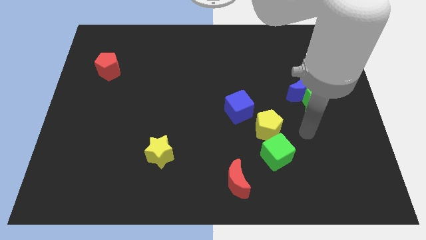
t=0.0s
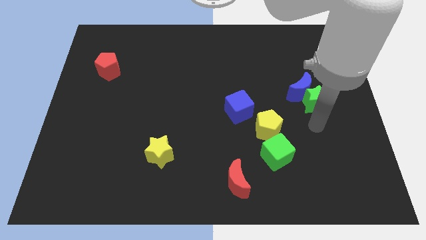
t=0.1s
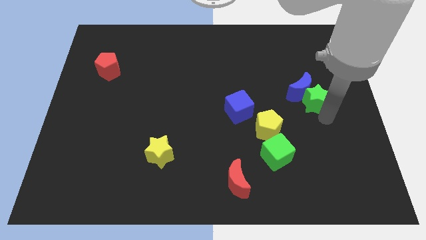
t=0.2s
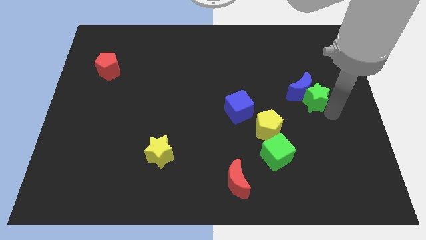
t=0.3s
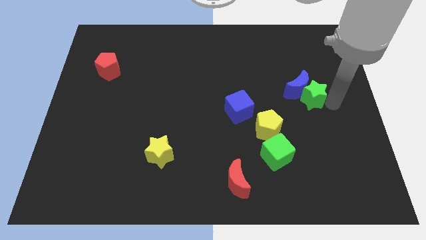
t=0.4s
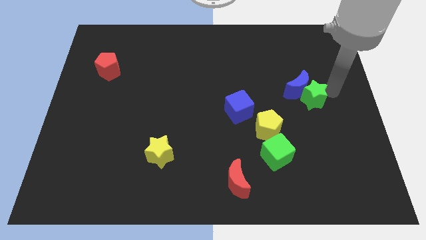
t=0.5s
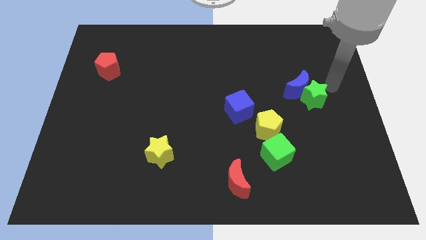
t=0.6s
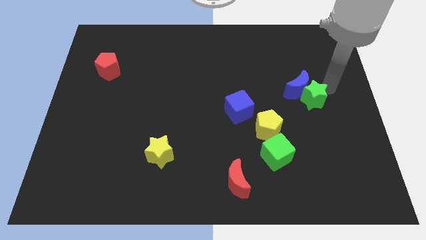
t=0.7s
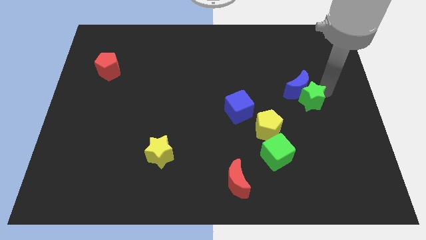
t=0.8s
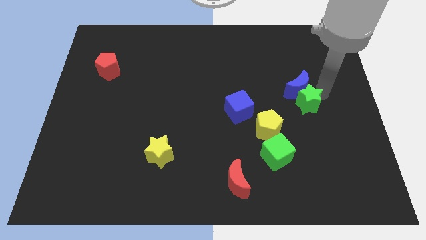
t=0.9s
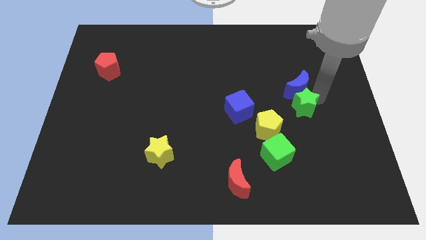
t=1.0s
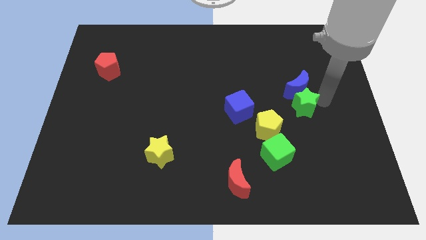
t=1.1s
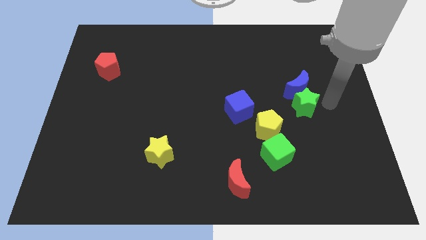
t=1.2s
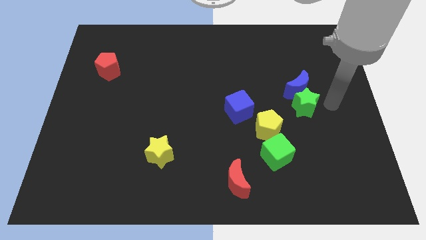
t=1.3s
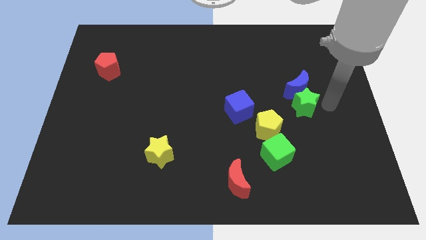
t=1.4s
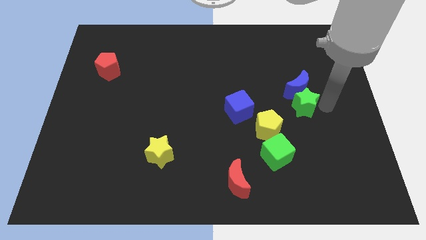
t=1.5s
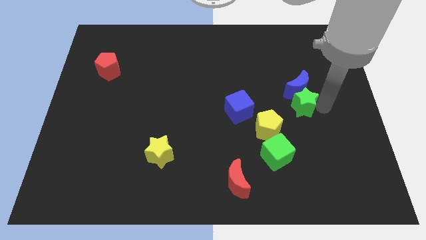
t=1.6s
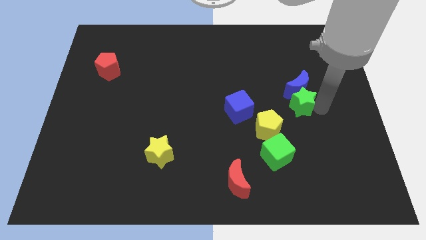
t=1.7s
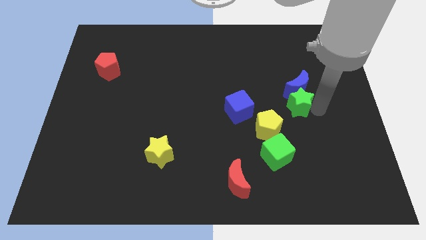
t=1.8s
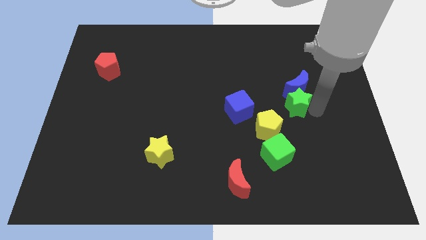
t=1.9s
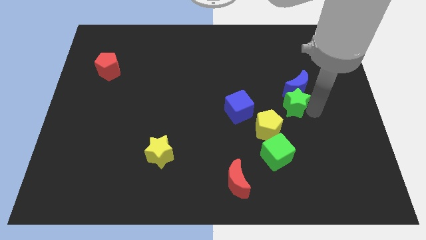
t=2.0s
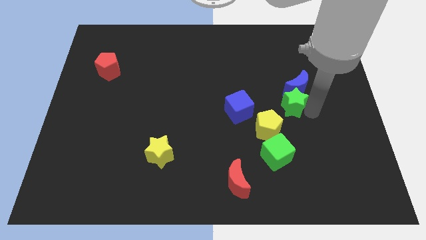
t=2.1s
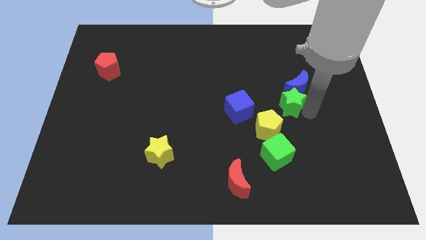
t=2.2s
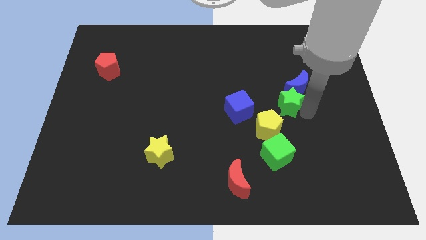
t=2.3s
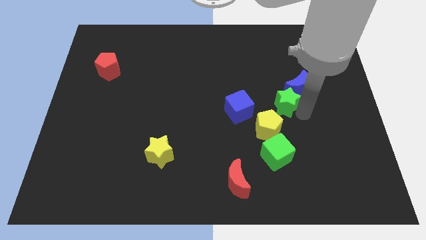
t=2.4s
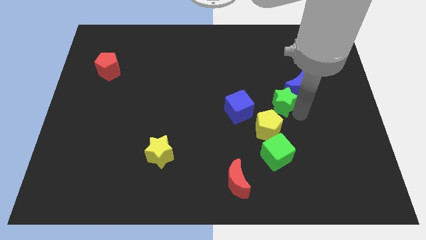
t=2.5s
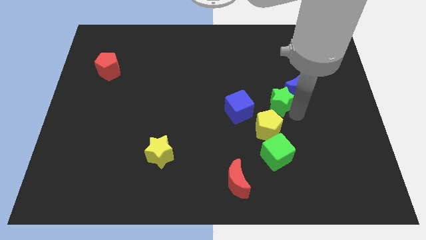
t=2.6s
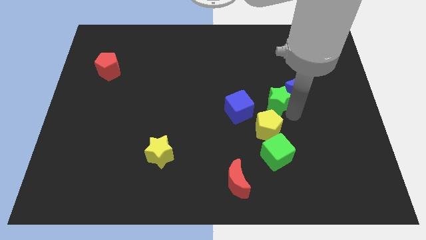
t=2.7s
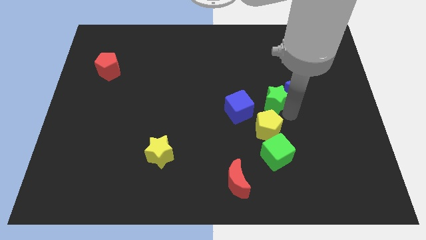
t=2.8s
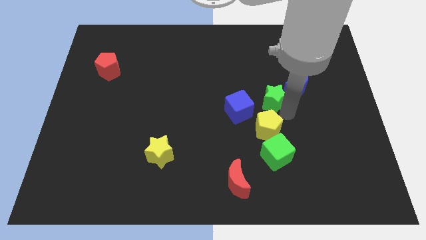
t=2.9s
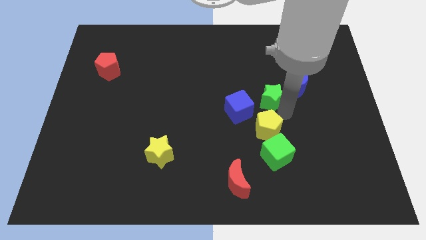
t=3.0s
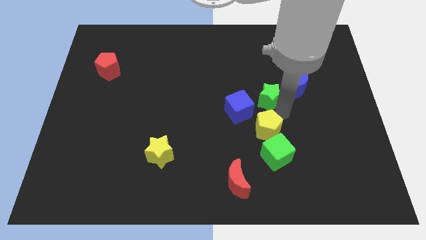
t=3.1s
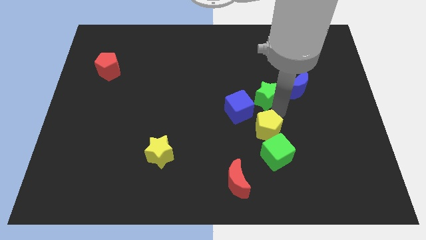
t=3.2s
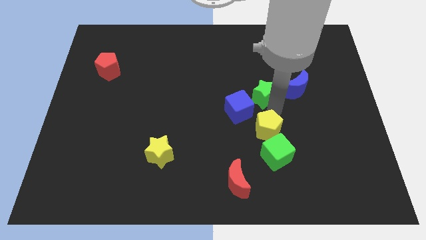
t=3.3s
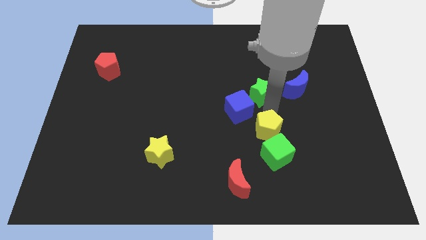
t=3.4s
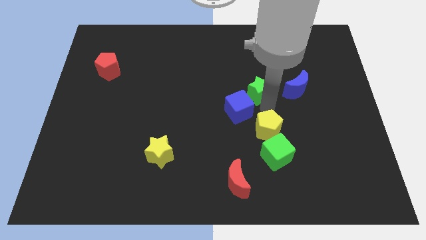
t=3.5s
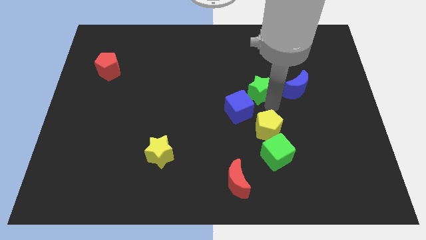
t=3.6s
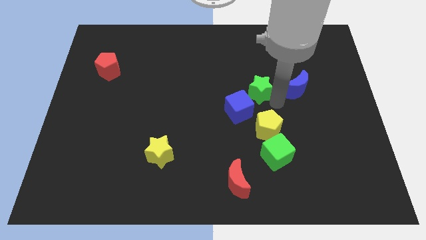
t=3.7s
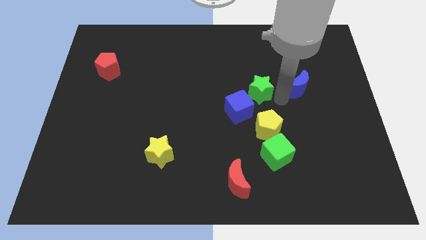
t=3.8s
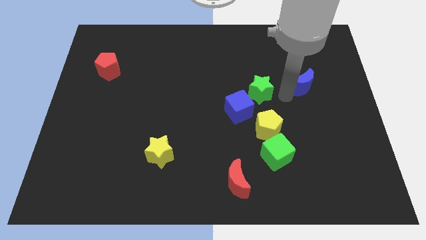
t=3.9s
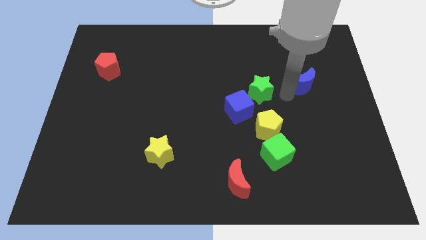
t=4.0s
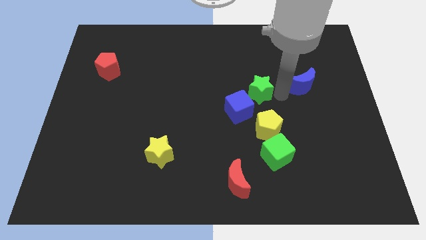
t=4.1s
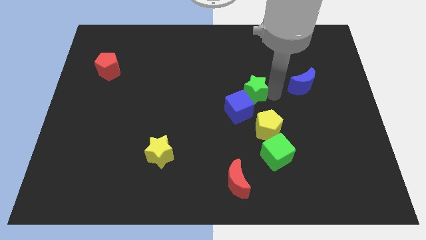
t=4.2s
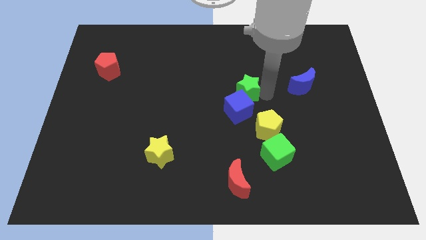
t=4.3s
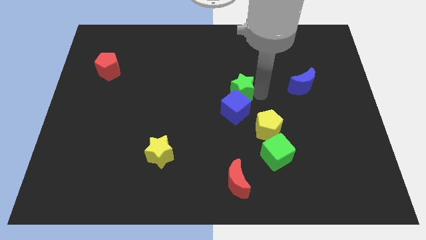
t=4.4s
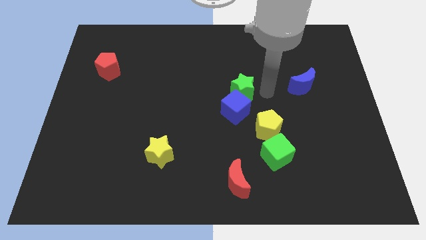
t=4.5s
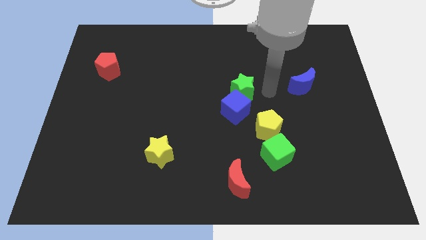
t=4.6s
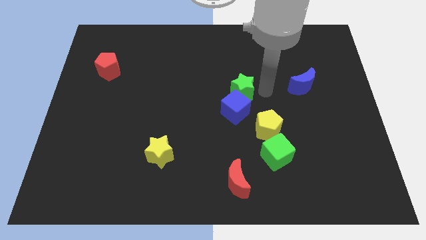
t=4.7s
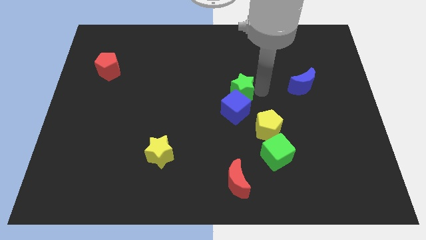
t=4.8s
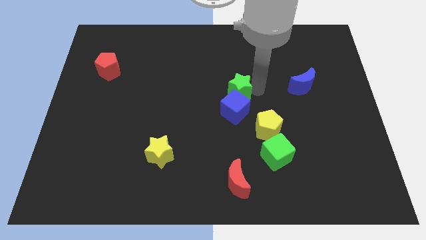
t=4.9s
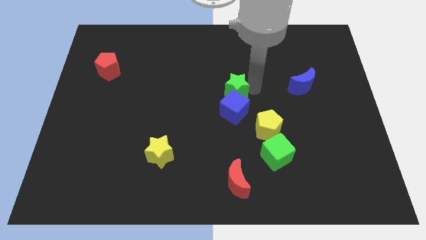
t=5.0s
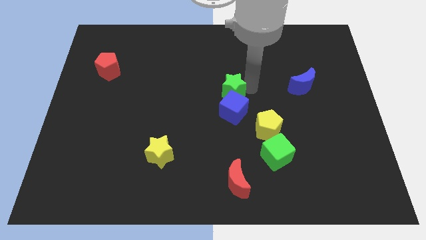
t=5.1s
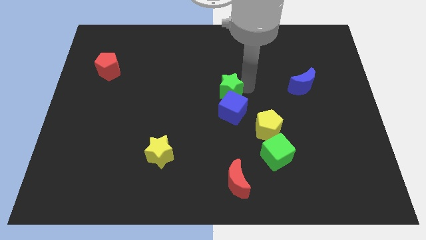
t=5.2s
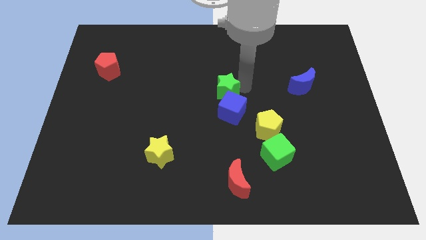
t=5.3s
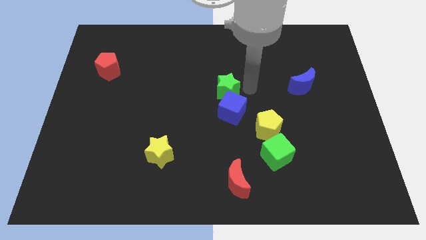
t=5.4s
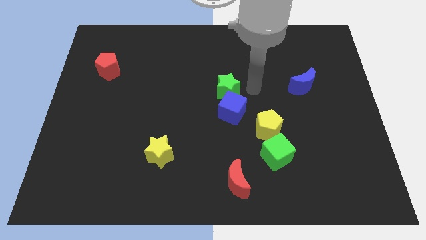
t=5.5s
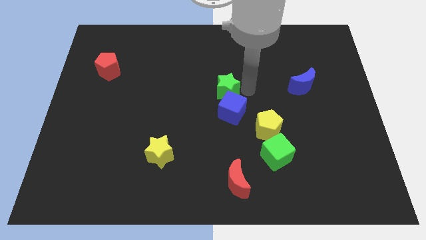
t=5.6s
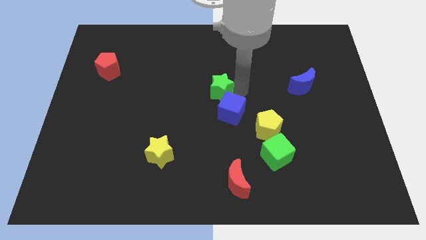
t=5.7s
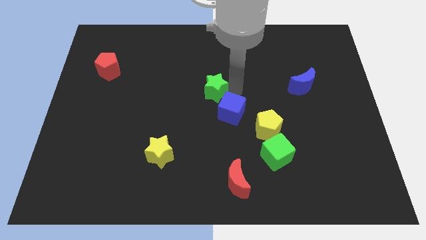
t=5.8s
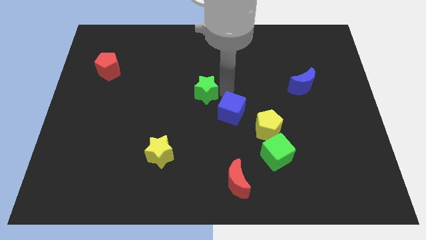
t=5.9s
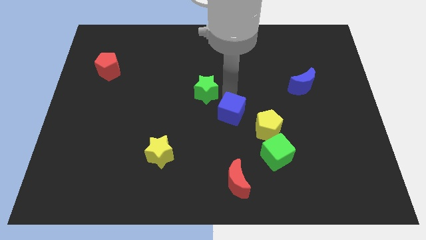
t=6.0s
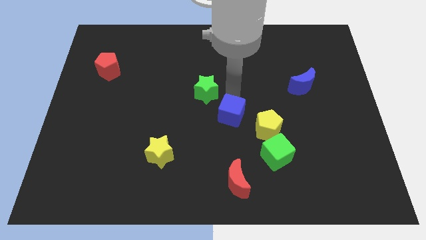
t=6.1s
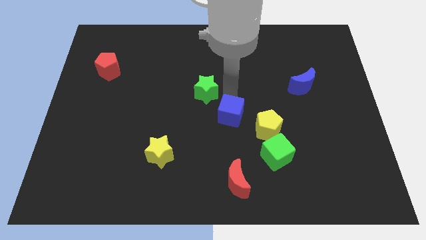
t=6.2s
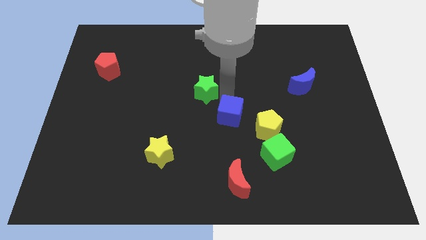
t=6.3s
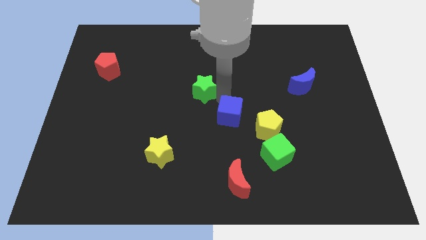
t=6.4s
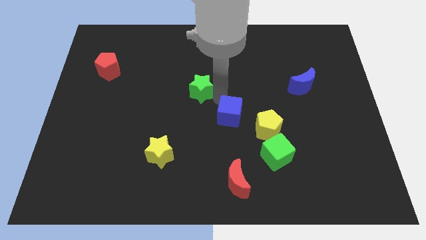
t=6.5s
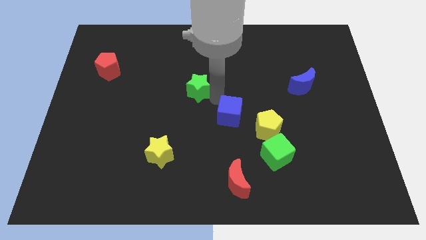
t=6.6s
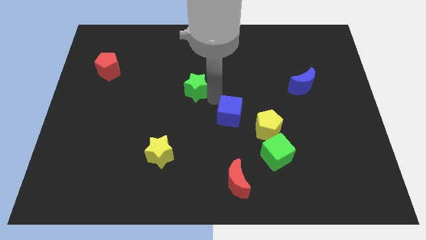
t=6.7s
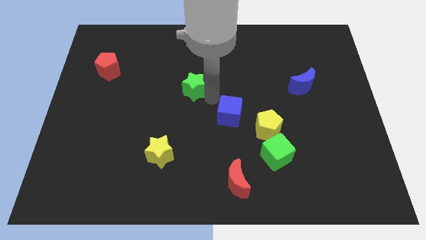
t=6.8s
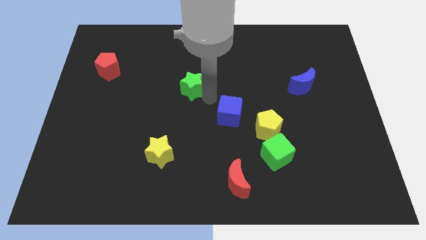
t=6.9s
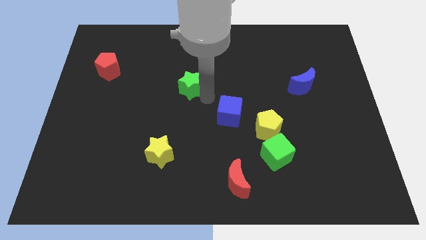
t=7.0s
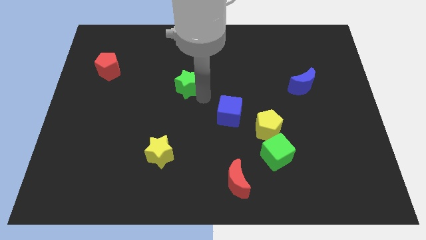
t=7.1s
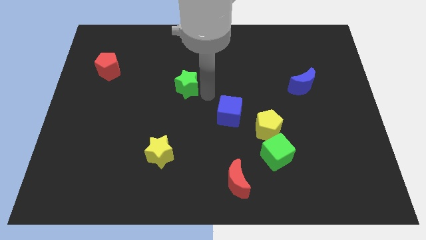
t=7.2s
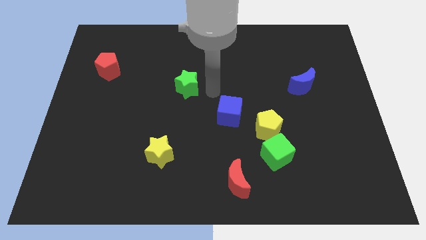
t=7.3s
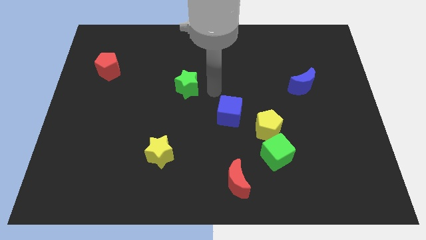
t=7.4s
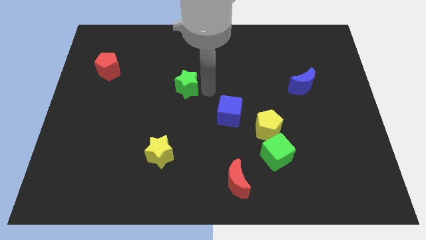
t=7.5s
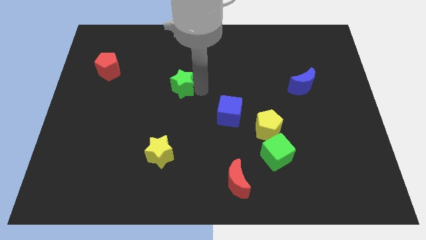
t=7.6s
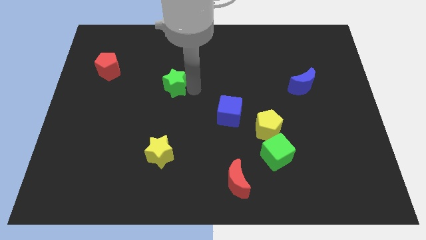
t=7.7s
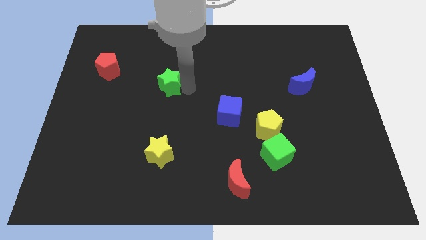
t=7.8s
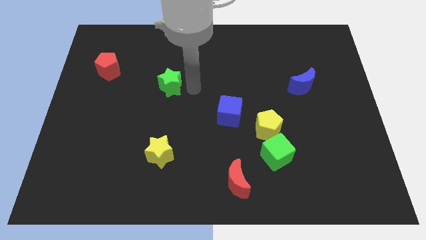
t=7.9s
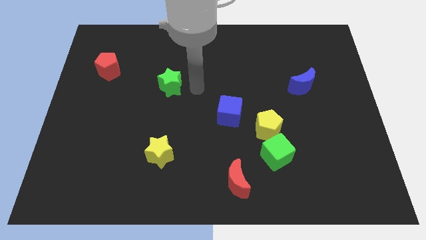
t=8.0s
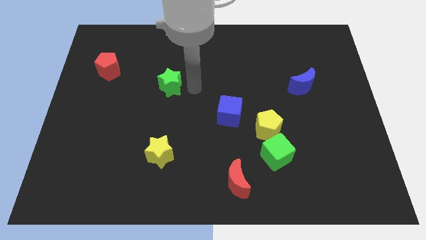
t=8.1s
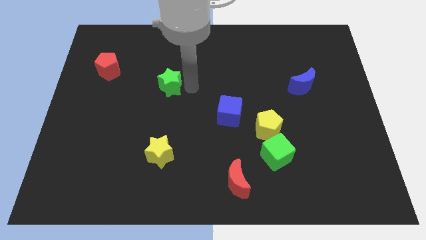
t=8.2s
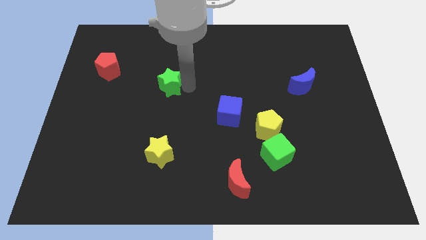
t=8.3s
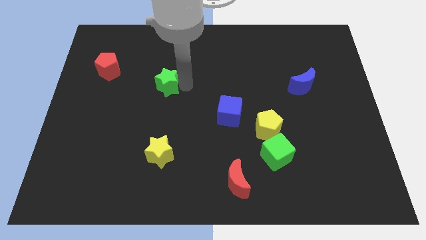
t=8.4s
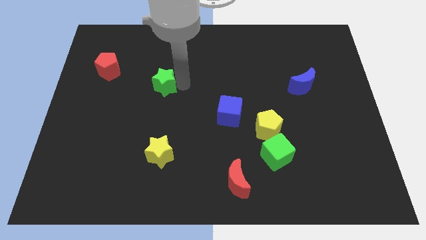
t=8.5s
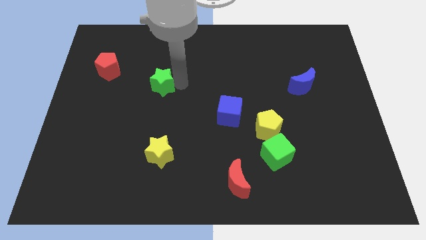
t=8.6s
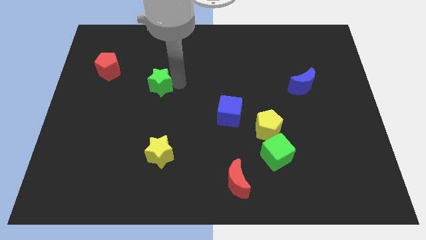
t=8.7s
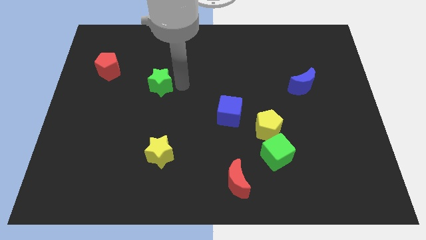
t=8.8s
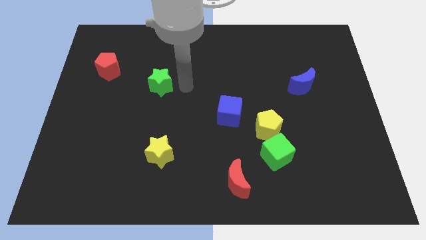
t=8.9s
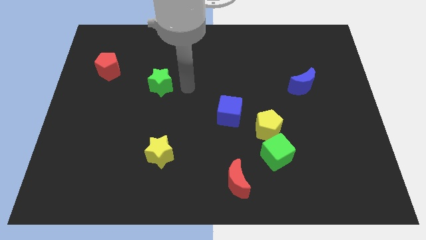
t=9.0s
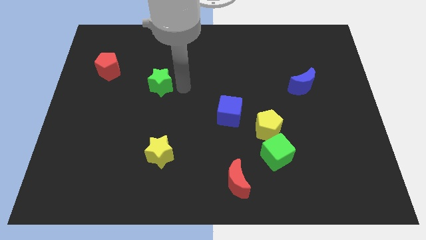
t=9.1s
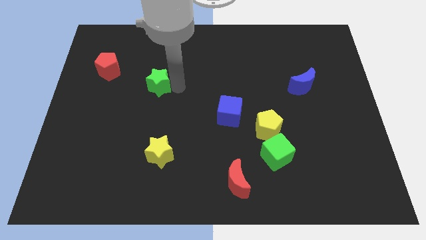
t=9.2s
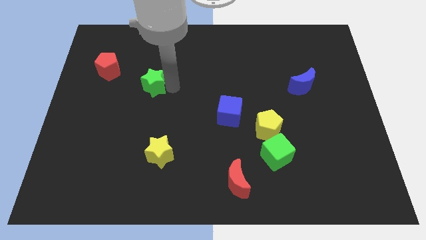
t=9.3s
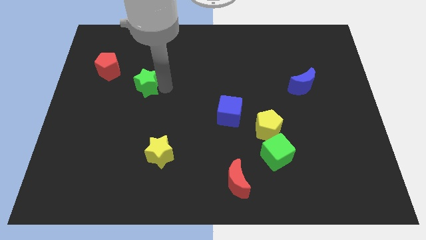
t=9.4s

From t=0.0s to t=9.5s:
move the green star to the bottom right side of the red pentagon
